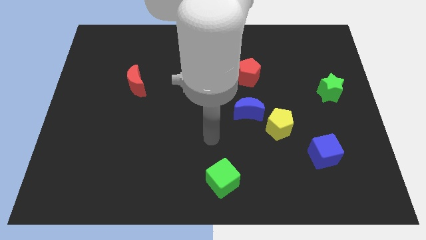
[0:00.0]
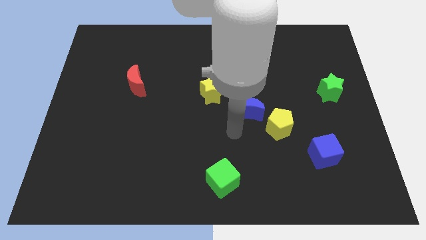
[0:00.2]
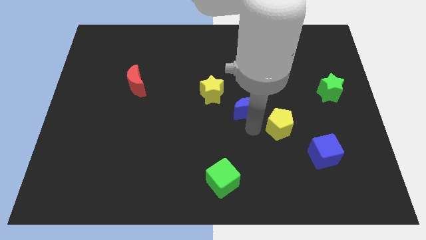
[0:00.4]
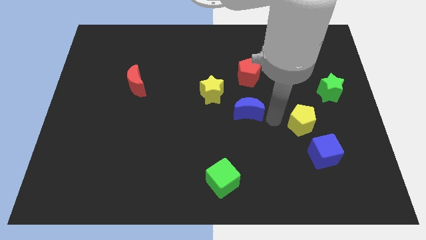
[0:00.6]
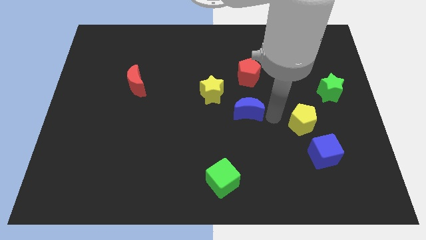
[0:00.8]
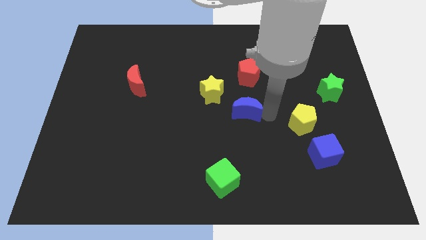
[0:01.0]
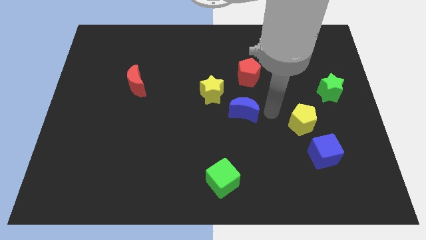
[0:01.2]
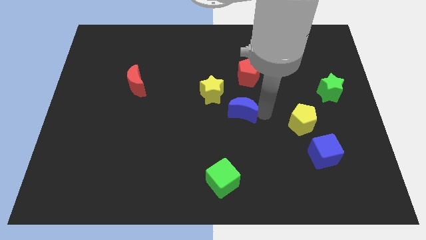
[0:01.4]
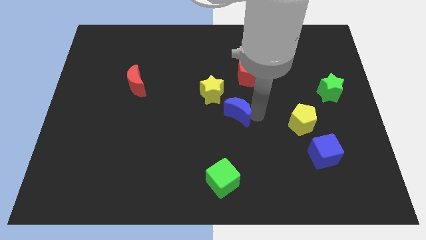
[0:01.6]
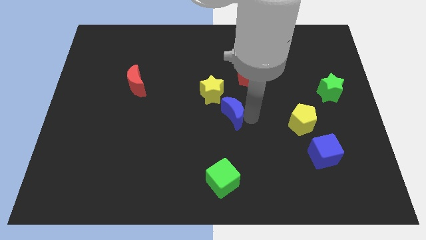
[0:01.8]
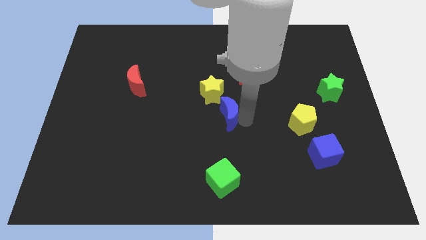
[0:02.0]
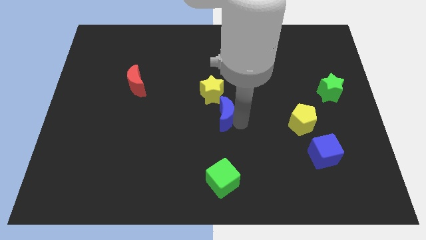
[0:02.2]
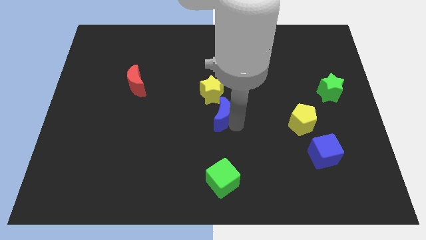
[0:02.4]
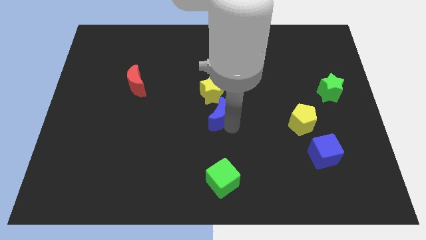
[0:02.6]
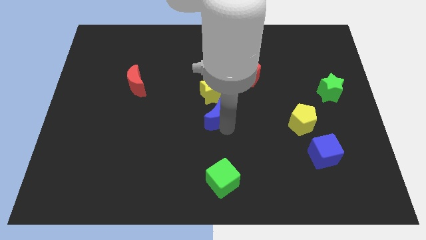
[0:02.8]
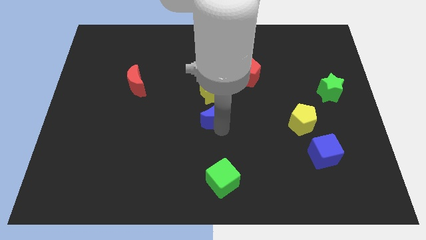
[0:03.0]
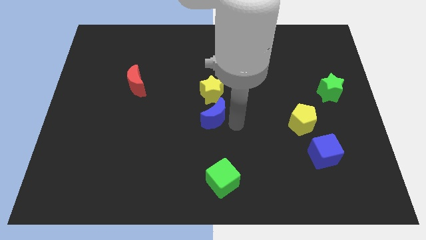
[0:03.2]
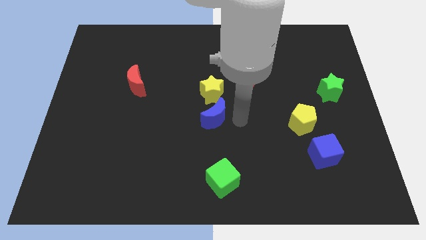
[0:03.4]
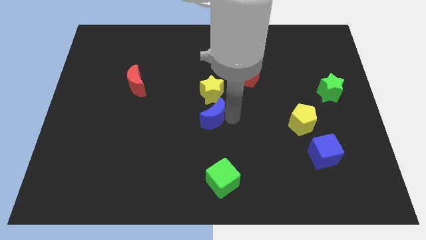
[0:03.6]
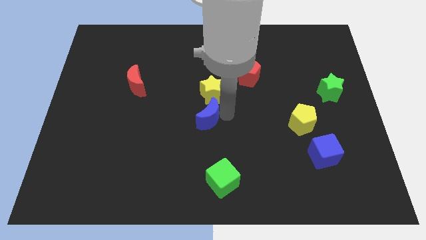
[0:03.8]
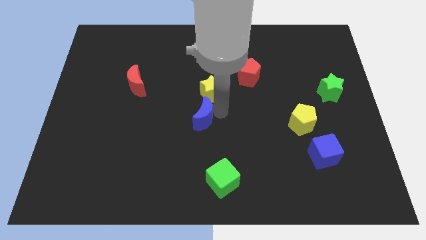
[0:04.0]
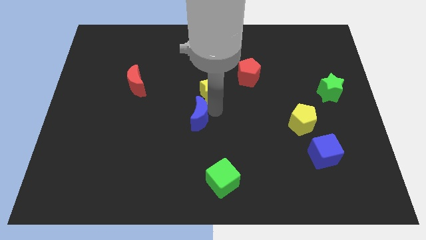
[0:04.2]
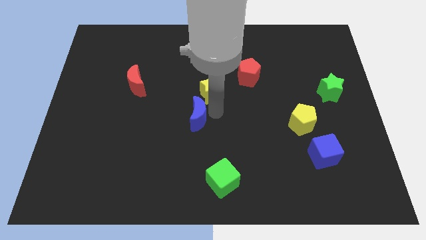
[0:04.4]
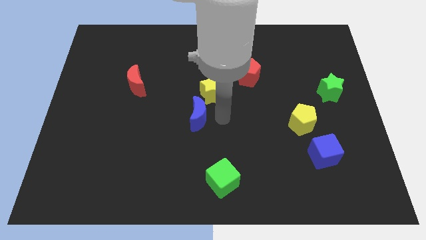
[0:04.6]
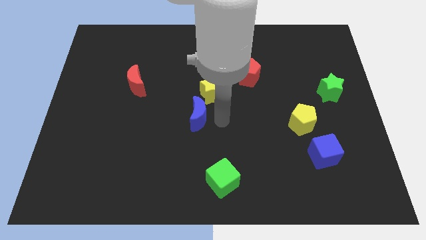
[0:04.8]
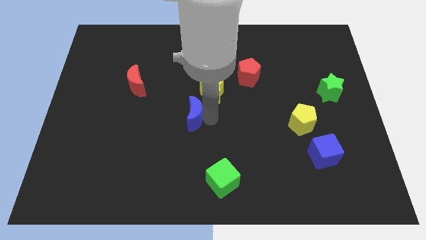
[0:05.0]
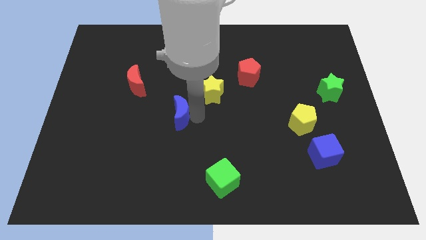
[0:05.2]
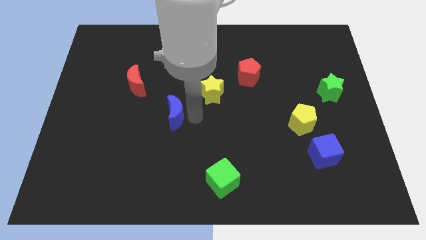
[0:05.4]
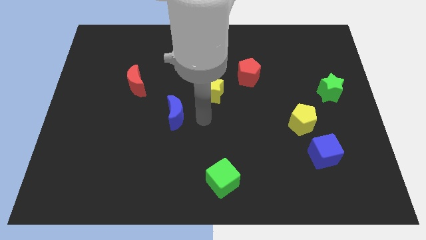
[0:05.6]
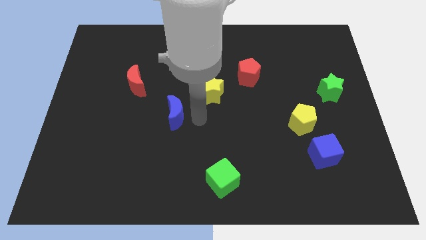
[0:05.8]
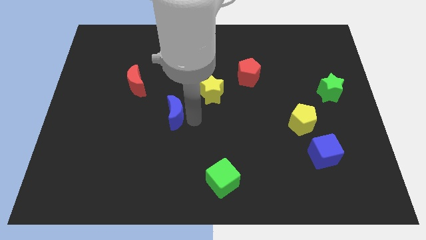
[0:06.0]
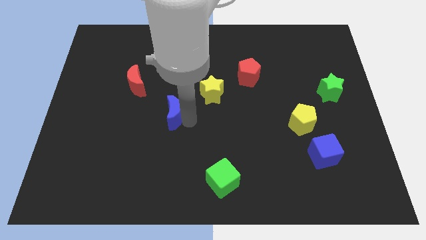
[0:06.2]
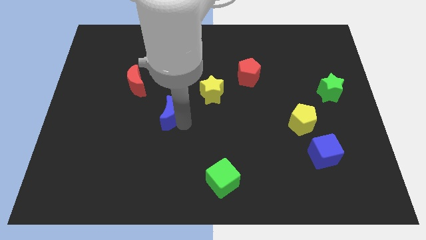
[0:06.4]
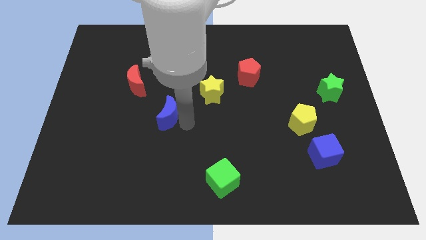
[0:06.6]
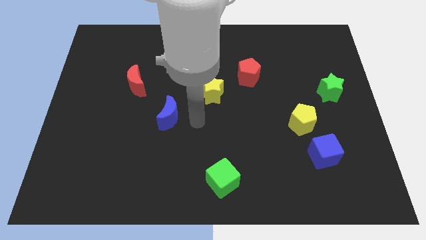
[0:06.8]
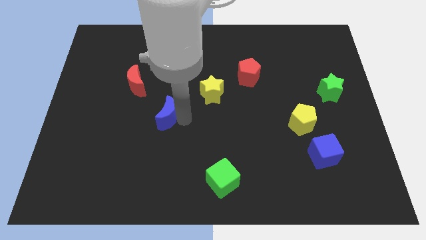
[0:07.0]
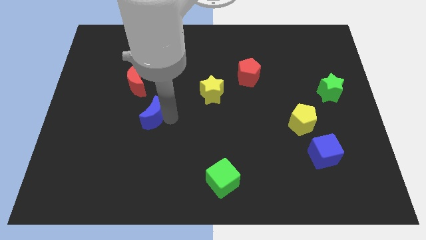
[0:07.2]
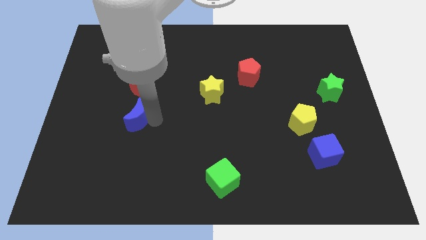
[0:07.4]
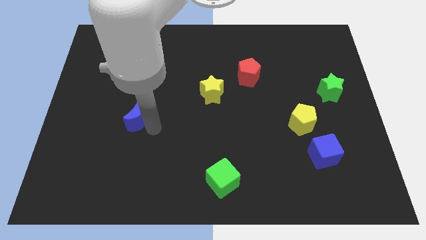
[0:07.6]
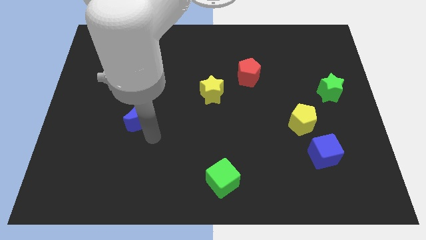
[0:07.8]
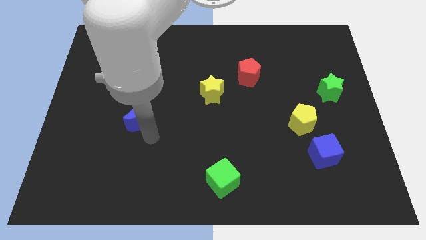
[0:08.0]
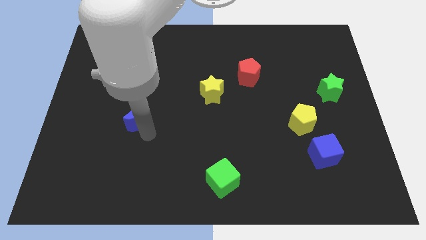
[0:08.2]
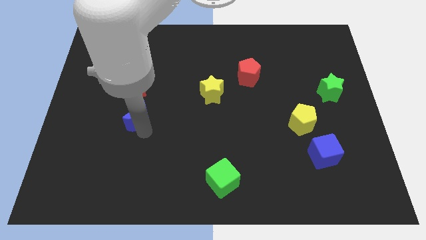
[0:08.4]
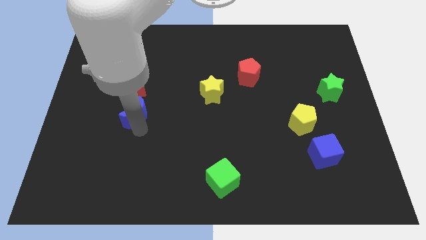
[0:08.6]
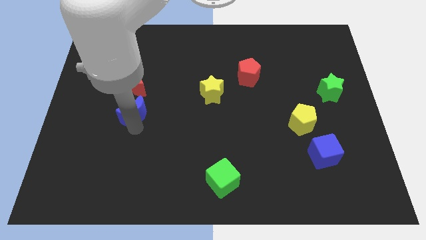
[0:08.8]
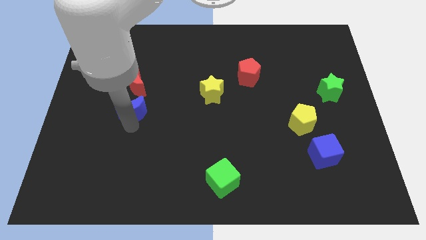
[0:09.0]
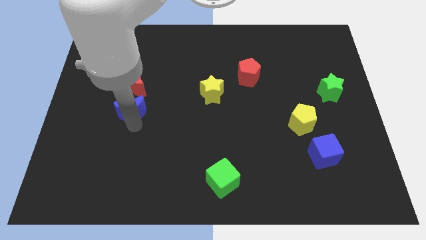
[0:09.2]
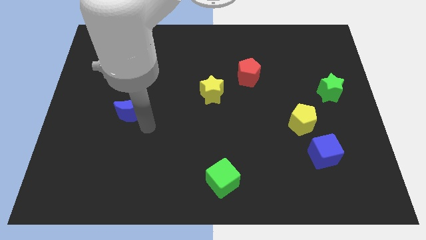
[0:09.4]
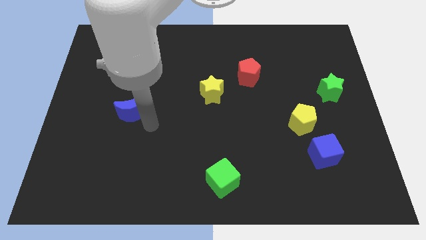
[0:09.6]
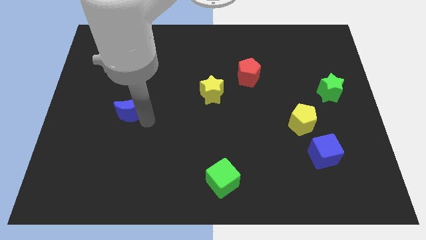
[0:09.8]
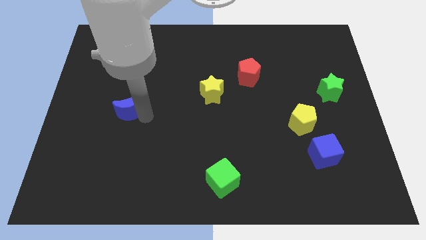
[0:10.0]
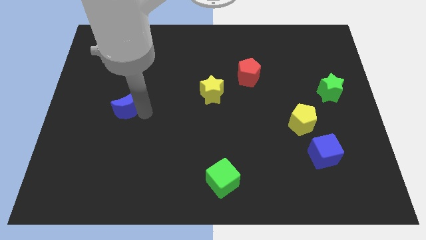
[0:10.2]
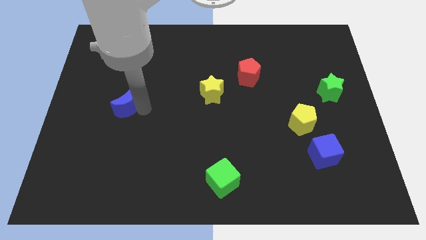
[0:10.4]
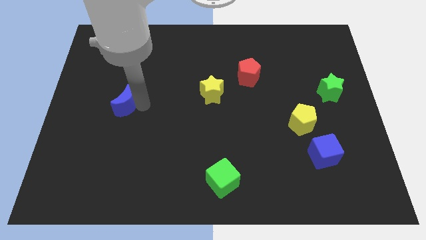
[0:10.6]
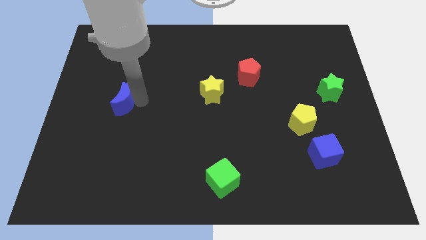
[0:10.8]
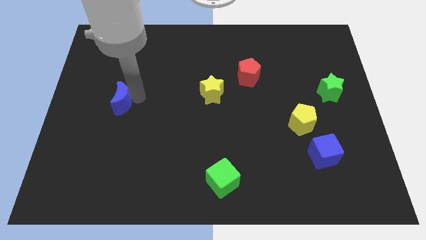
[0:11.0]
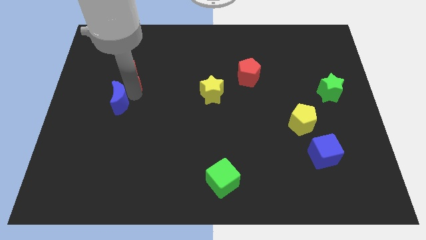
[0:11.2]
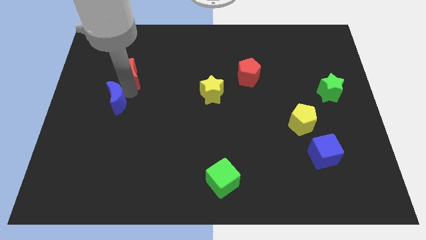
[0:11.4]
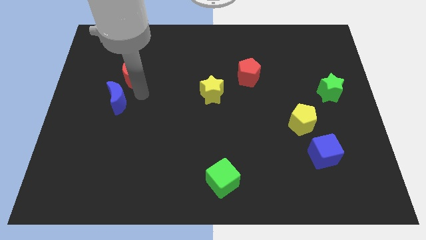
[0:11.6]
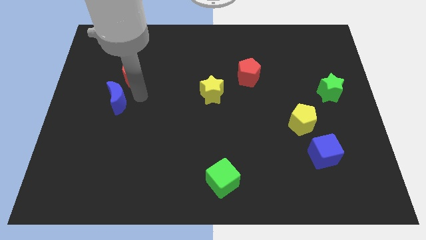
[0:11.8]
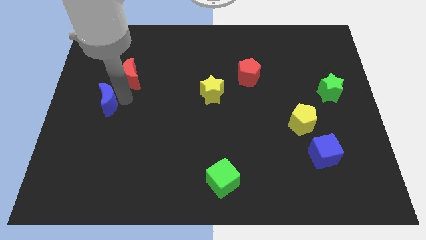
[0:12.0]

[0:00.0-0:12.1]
move the blue moon to the center left

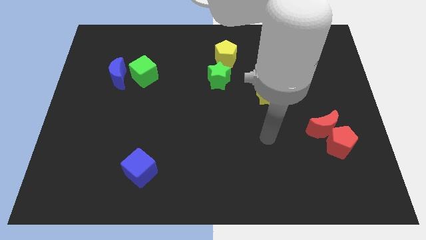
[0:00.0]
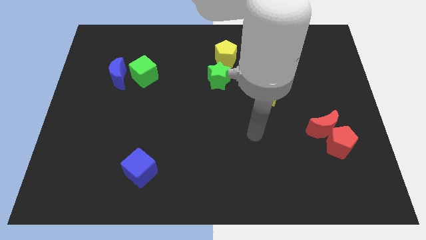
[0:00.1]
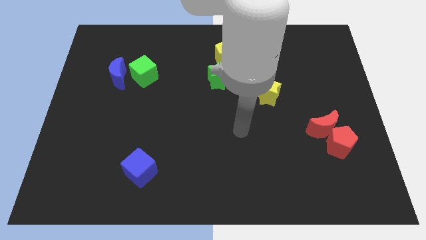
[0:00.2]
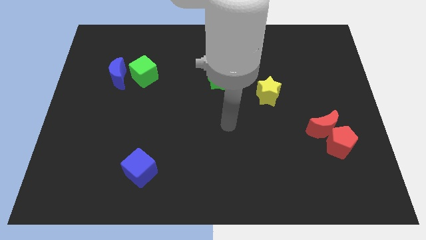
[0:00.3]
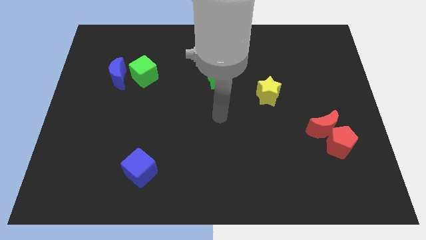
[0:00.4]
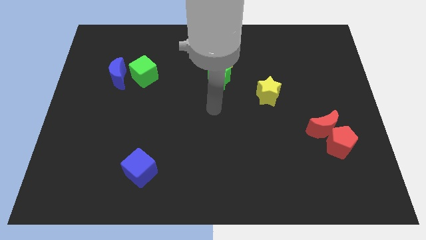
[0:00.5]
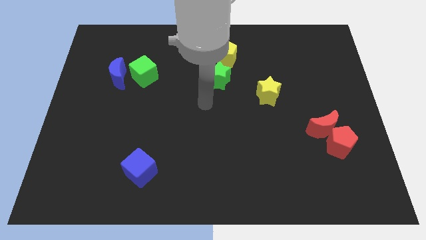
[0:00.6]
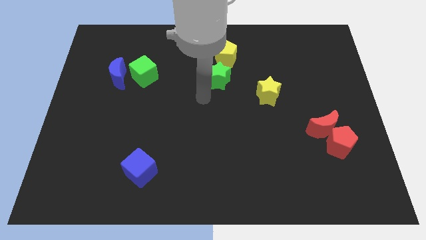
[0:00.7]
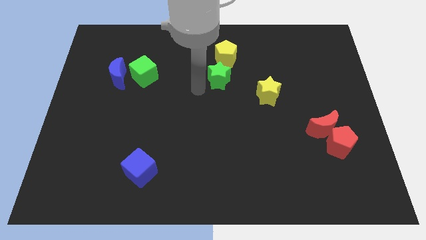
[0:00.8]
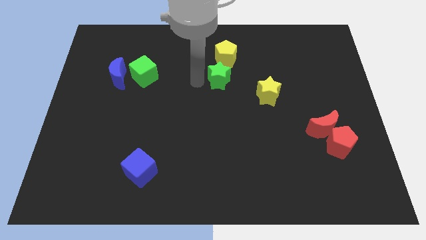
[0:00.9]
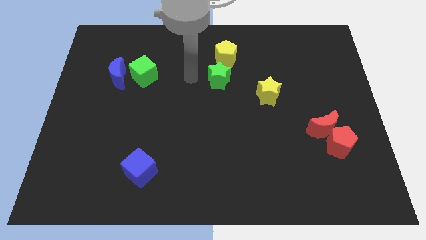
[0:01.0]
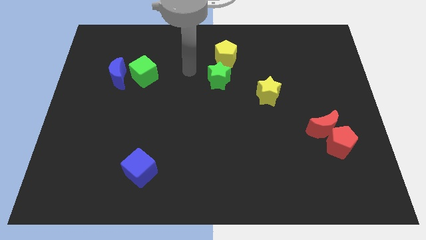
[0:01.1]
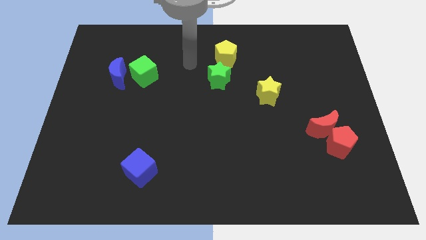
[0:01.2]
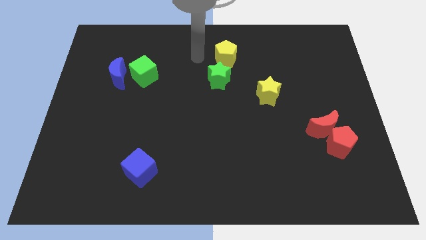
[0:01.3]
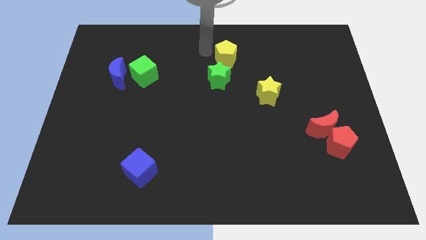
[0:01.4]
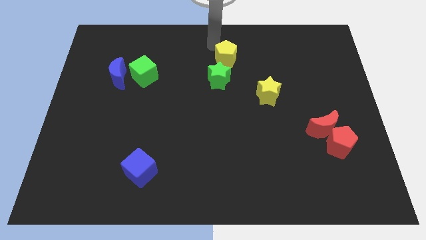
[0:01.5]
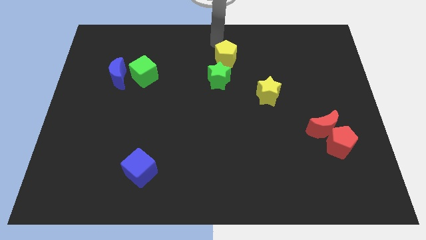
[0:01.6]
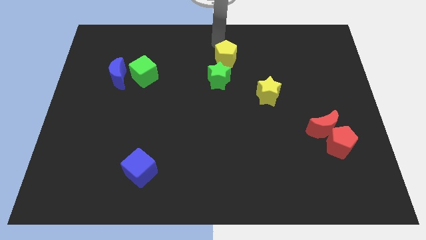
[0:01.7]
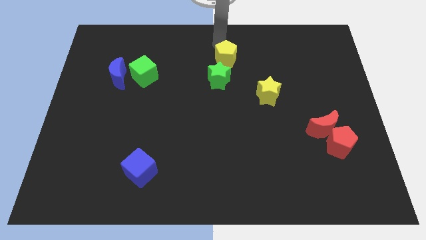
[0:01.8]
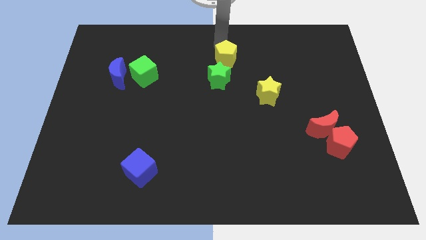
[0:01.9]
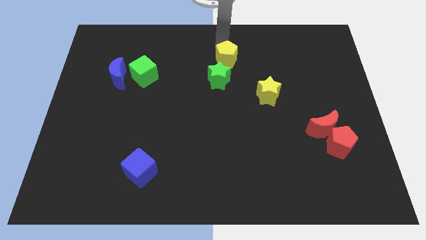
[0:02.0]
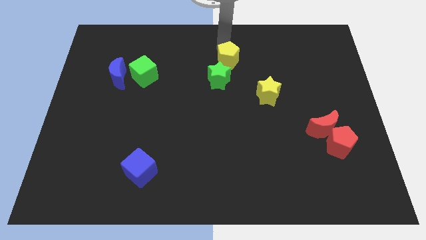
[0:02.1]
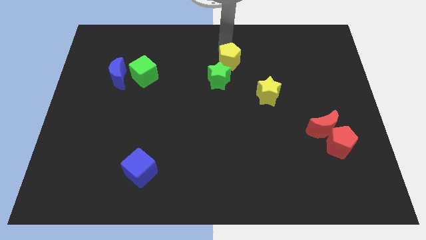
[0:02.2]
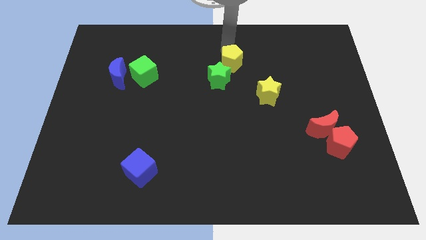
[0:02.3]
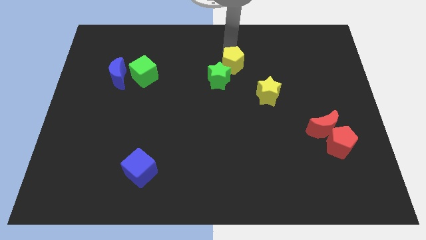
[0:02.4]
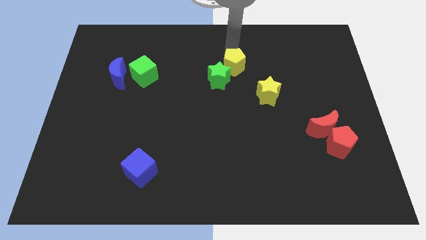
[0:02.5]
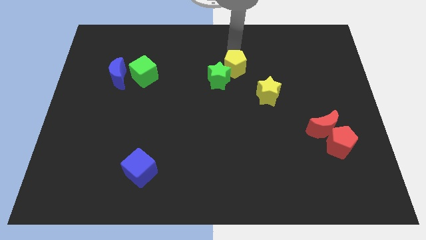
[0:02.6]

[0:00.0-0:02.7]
move the yellow pentagon to the center
